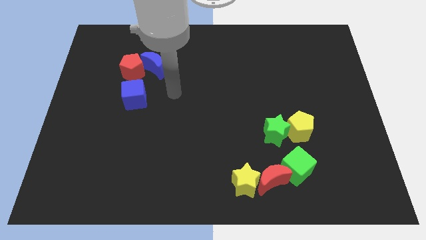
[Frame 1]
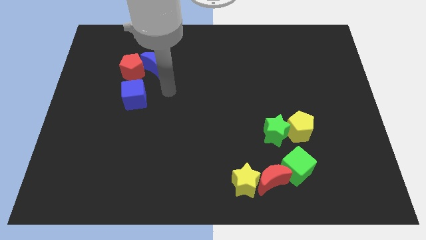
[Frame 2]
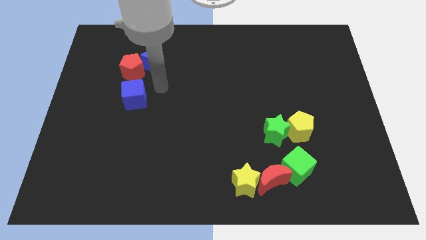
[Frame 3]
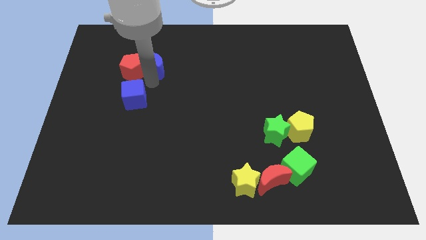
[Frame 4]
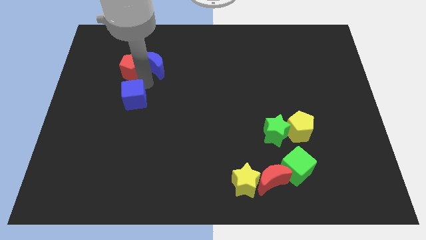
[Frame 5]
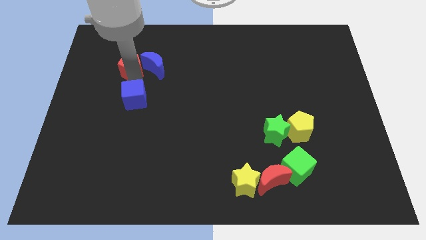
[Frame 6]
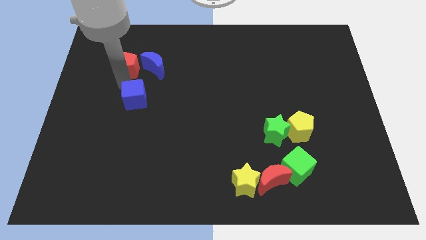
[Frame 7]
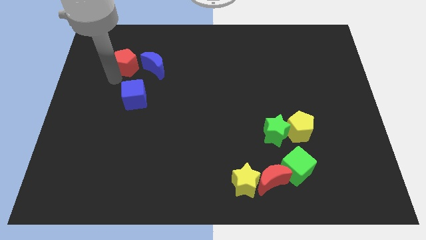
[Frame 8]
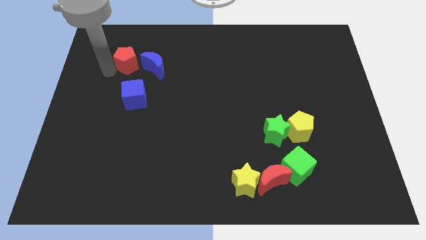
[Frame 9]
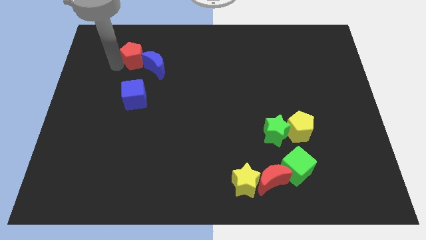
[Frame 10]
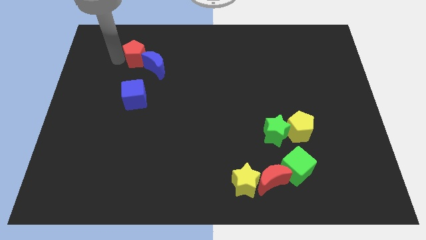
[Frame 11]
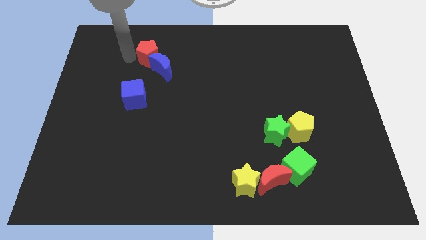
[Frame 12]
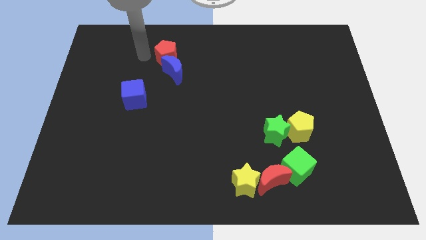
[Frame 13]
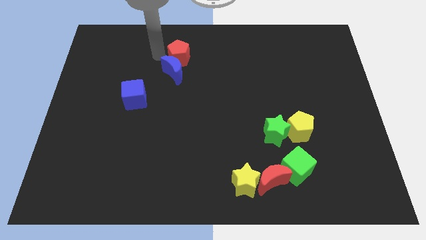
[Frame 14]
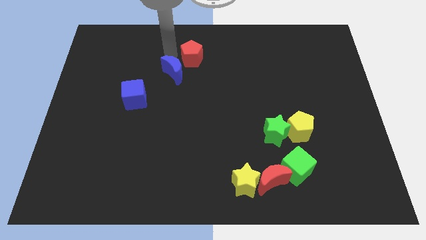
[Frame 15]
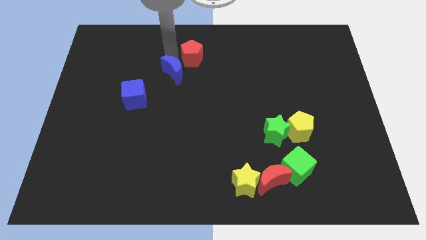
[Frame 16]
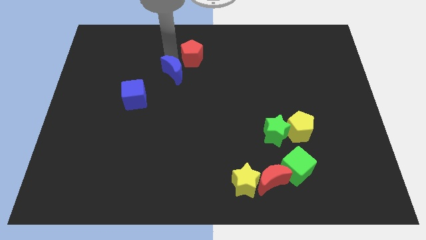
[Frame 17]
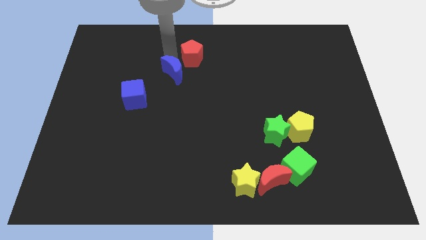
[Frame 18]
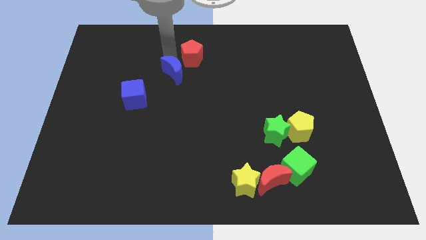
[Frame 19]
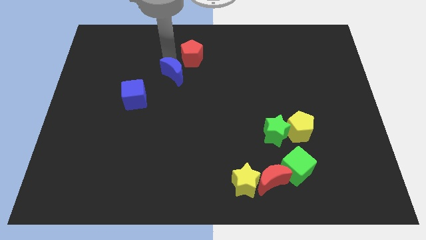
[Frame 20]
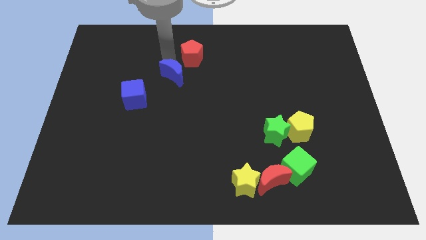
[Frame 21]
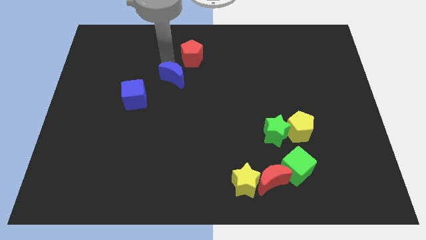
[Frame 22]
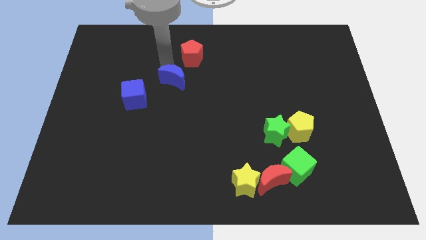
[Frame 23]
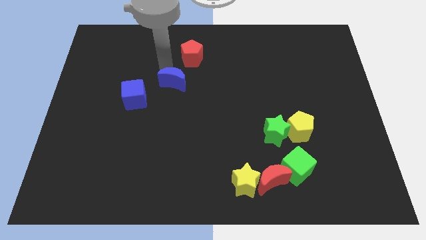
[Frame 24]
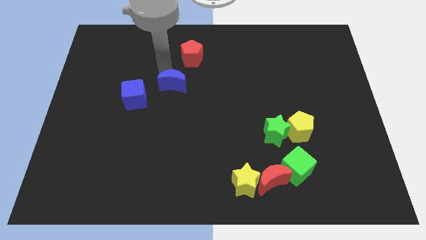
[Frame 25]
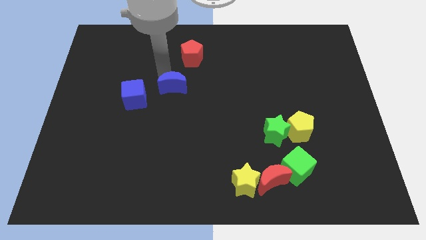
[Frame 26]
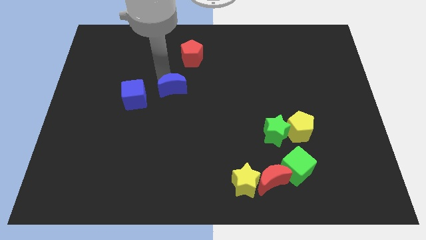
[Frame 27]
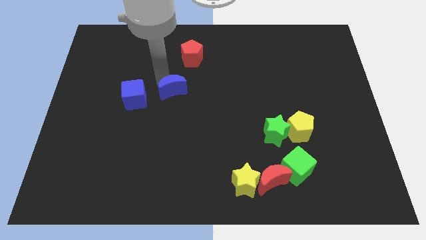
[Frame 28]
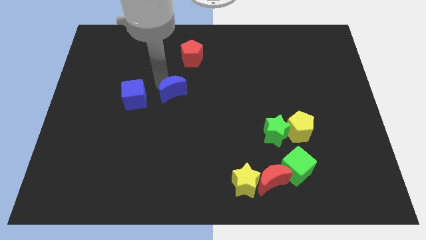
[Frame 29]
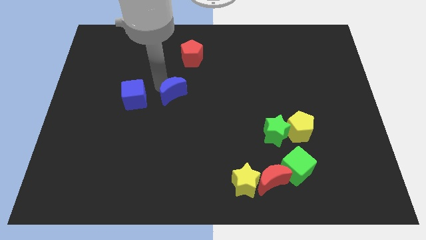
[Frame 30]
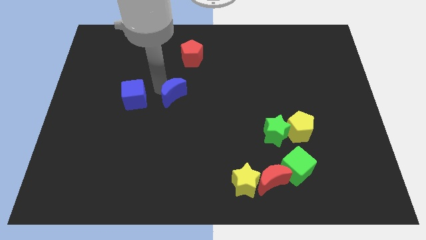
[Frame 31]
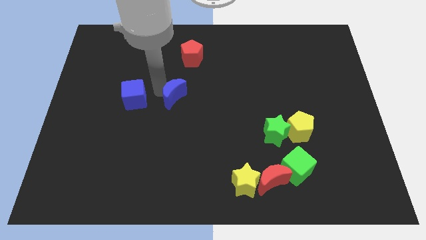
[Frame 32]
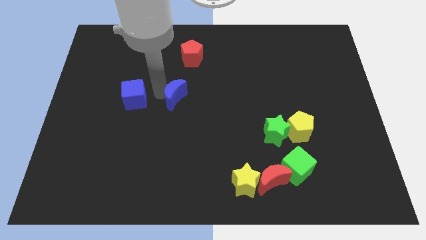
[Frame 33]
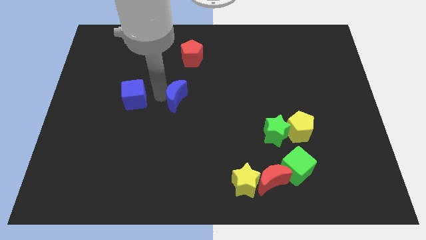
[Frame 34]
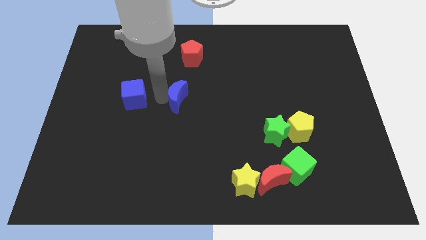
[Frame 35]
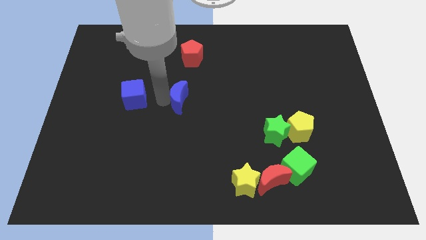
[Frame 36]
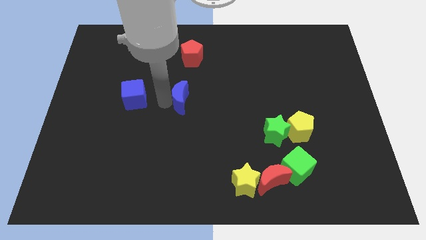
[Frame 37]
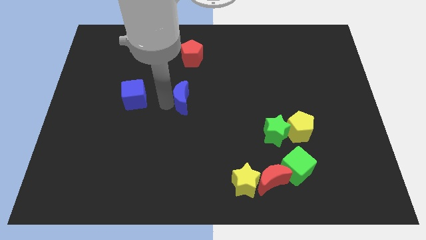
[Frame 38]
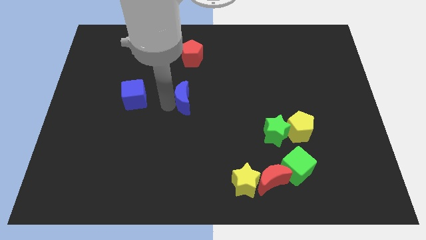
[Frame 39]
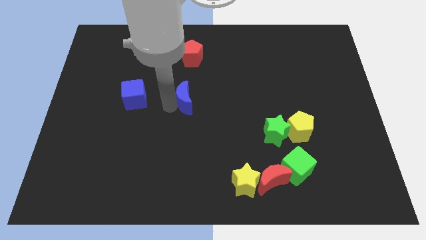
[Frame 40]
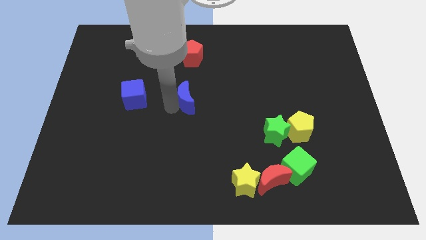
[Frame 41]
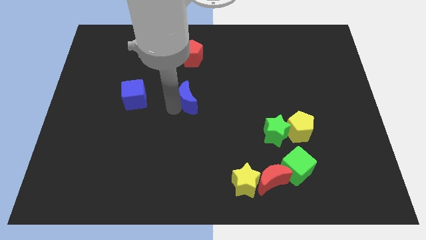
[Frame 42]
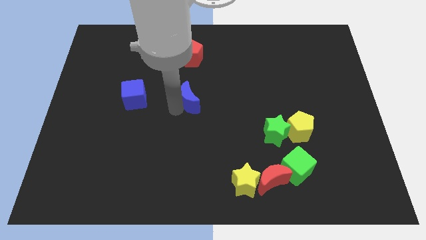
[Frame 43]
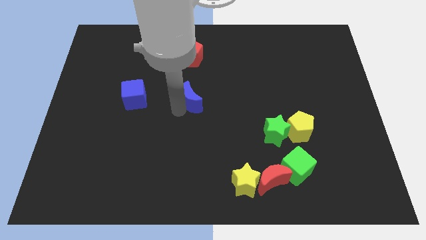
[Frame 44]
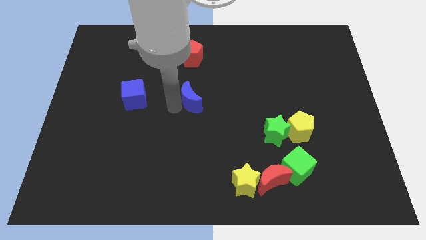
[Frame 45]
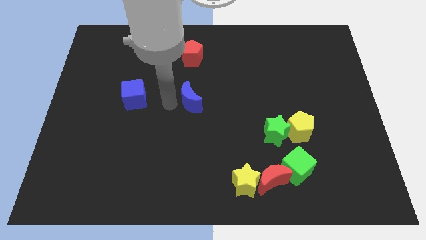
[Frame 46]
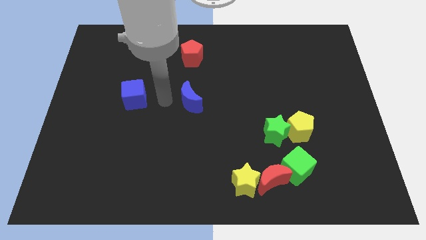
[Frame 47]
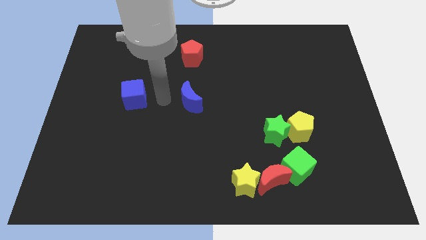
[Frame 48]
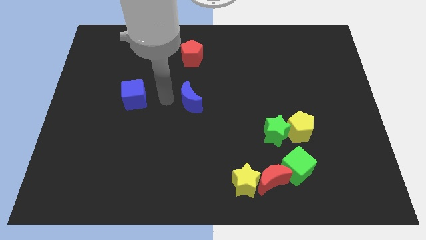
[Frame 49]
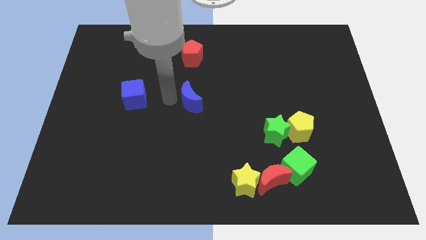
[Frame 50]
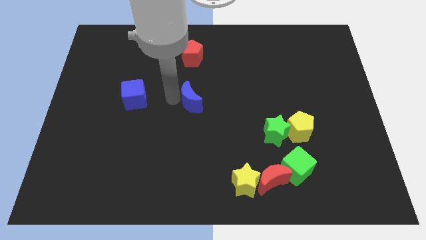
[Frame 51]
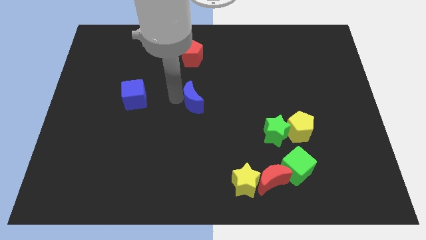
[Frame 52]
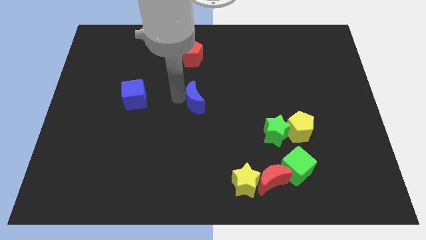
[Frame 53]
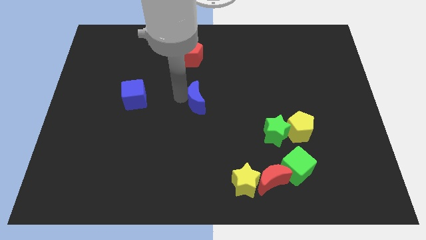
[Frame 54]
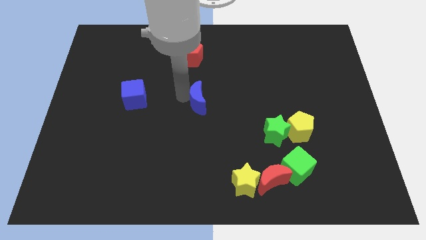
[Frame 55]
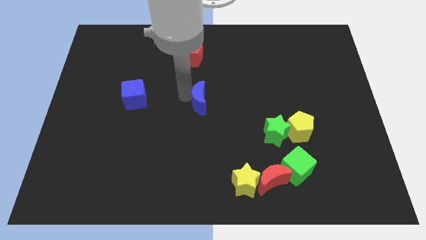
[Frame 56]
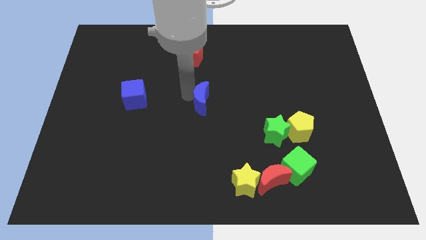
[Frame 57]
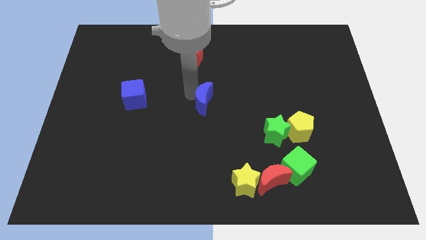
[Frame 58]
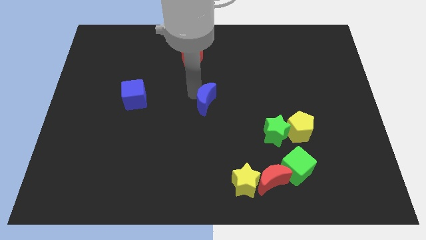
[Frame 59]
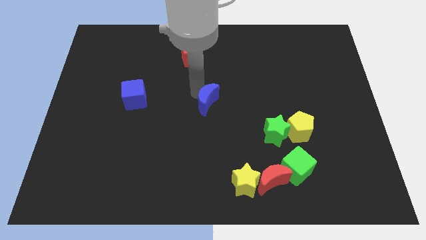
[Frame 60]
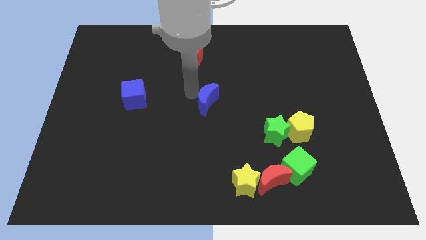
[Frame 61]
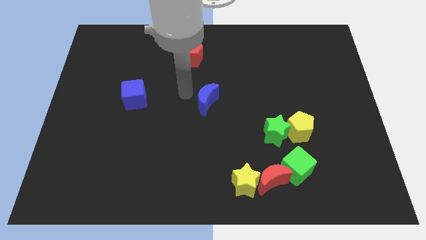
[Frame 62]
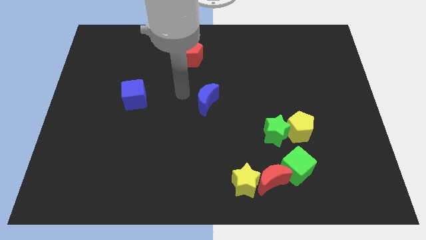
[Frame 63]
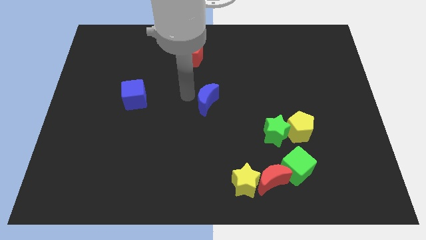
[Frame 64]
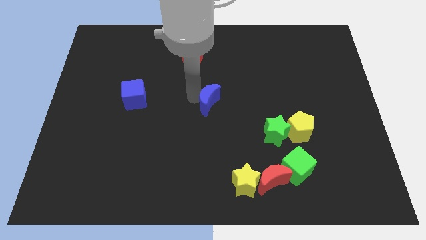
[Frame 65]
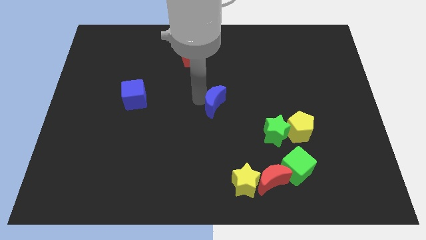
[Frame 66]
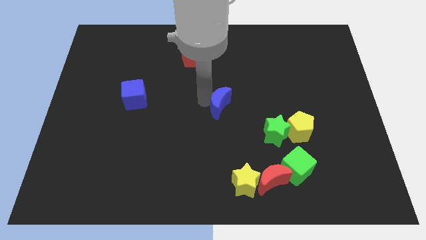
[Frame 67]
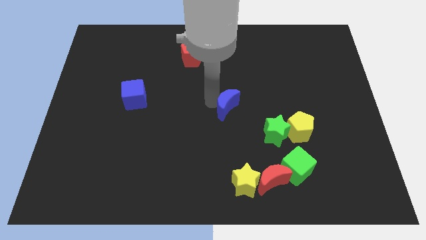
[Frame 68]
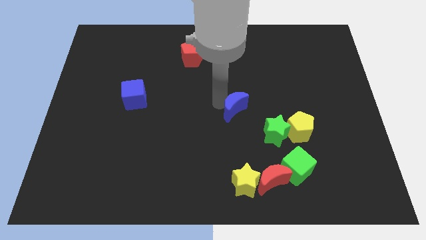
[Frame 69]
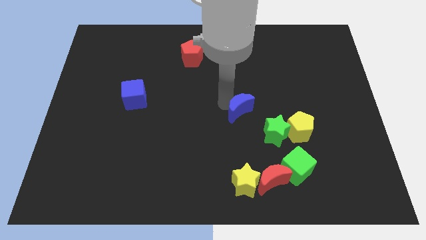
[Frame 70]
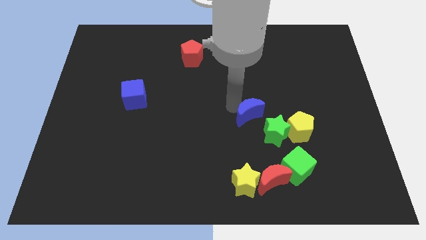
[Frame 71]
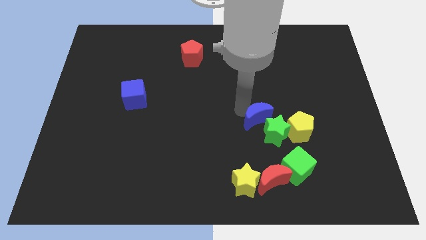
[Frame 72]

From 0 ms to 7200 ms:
move the blue moon to the green star
